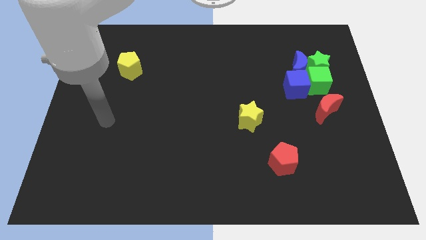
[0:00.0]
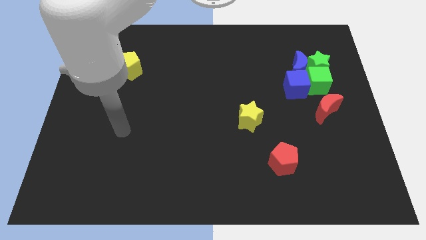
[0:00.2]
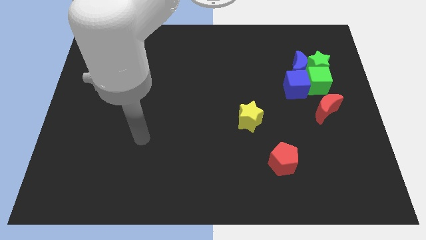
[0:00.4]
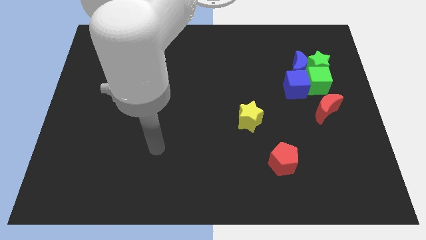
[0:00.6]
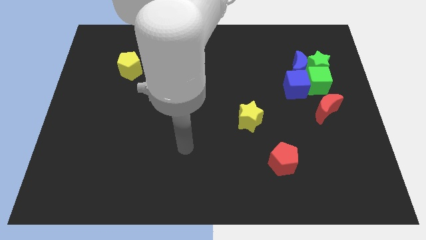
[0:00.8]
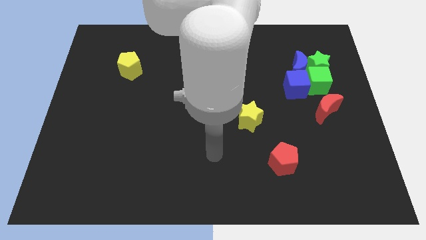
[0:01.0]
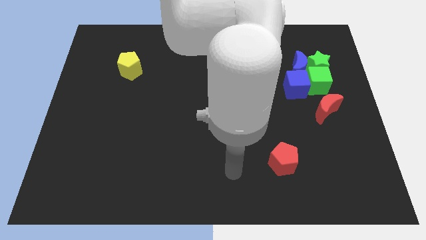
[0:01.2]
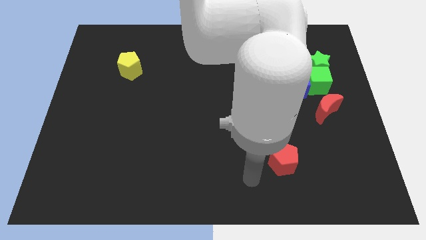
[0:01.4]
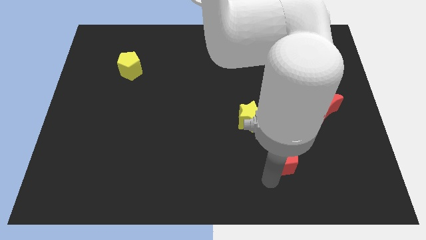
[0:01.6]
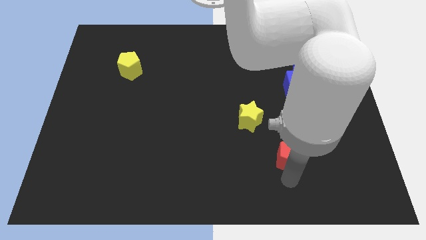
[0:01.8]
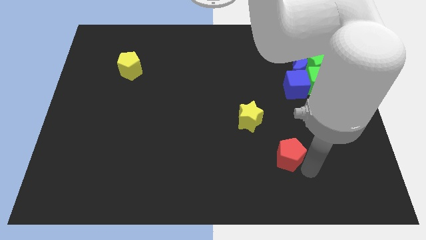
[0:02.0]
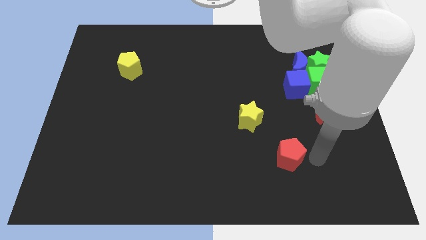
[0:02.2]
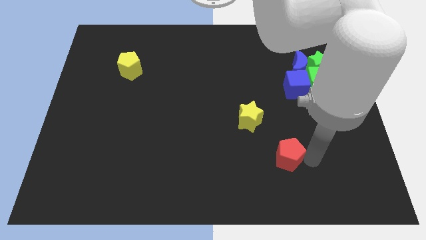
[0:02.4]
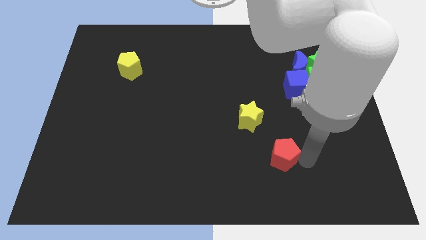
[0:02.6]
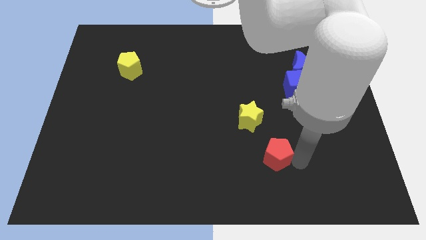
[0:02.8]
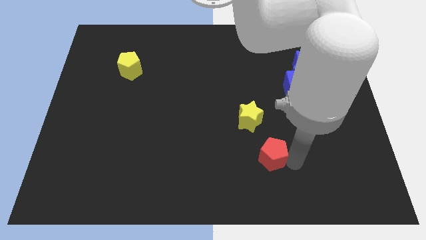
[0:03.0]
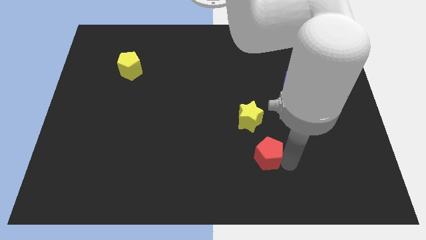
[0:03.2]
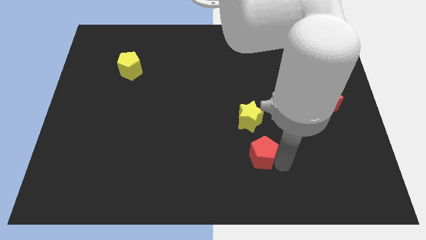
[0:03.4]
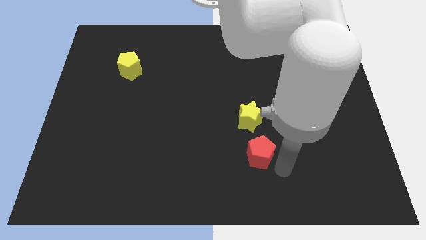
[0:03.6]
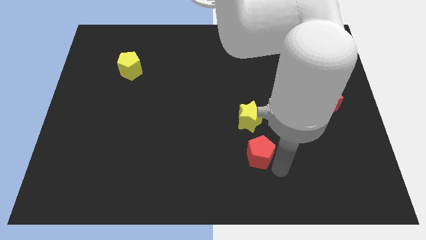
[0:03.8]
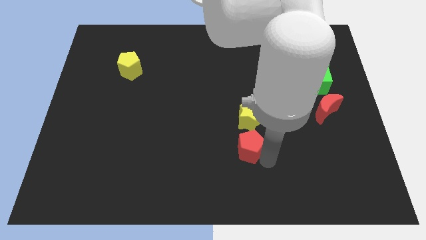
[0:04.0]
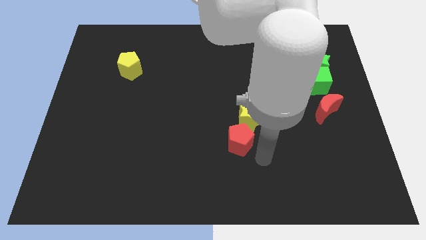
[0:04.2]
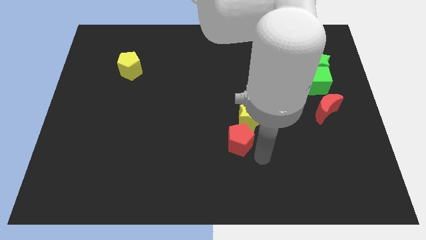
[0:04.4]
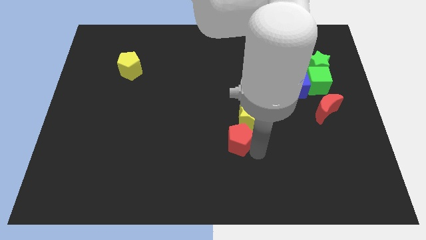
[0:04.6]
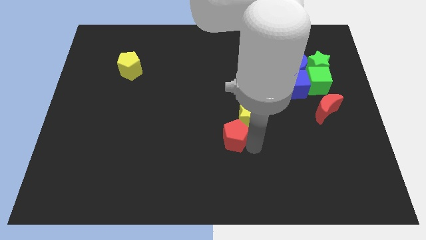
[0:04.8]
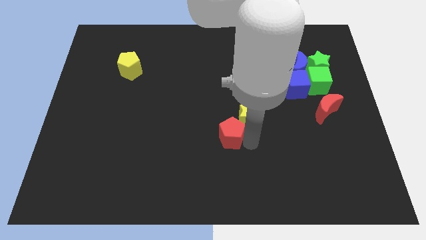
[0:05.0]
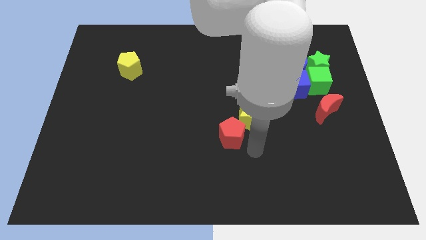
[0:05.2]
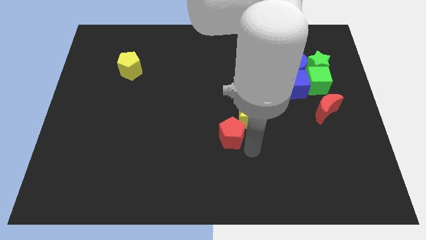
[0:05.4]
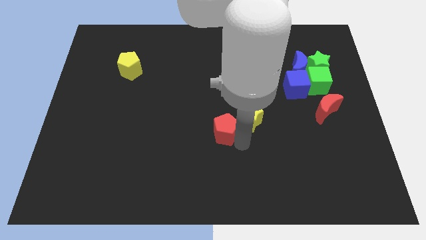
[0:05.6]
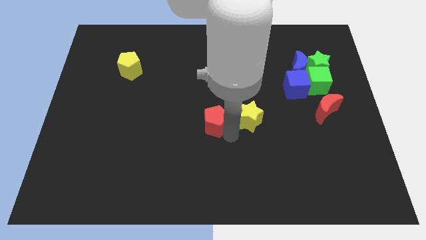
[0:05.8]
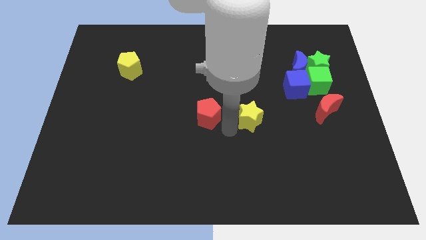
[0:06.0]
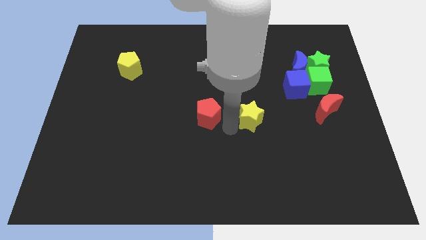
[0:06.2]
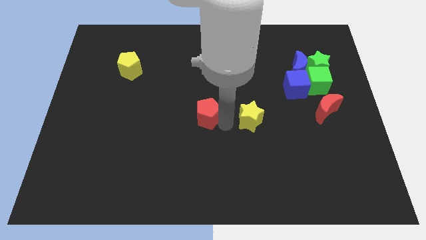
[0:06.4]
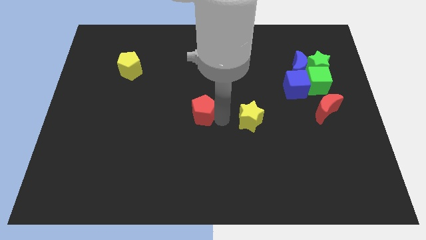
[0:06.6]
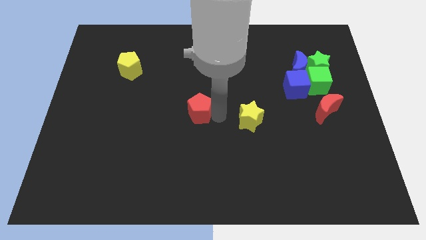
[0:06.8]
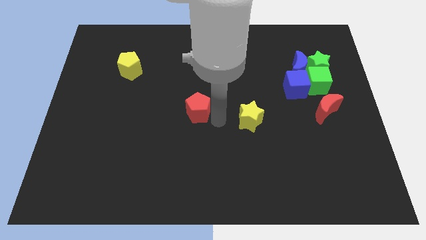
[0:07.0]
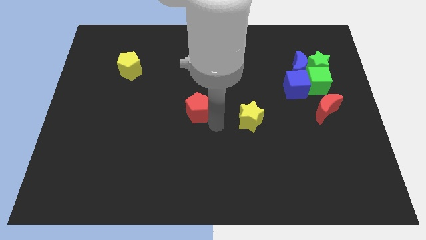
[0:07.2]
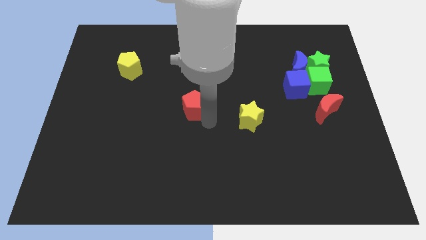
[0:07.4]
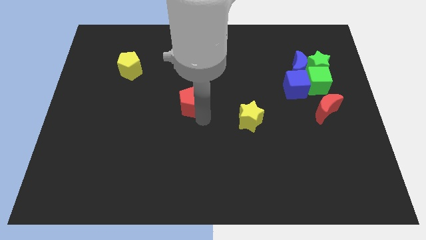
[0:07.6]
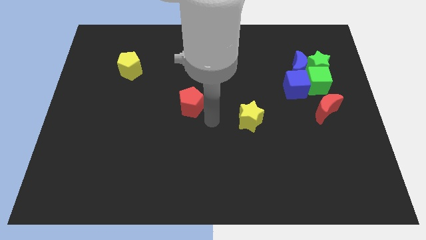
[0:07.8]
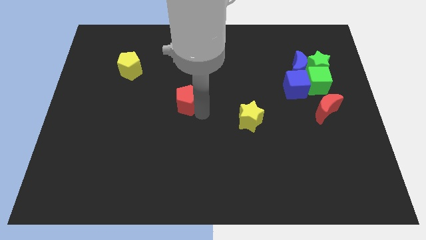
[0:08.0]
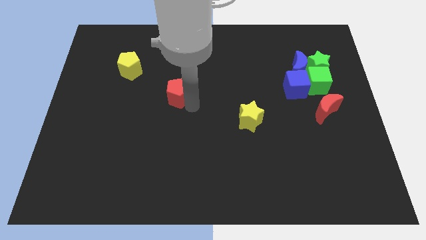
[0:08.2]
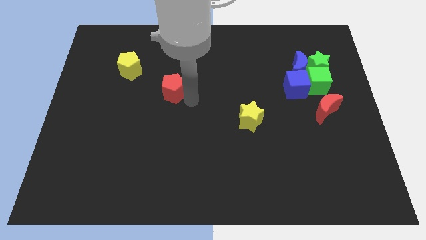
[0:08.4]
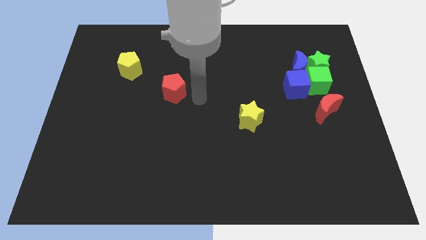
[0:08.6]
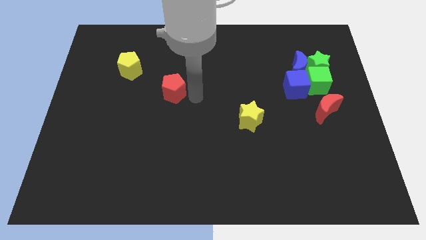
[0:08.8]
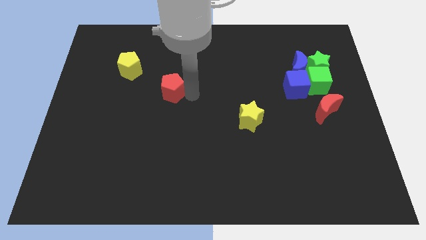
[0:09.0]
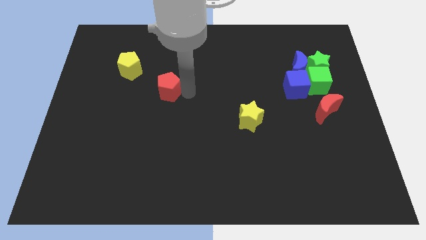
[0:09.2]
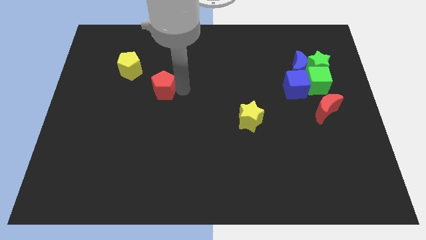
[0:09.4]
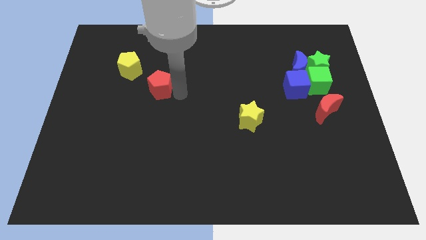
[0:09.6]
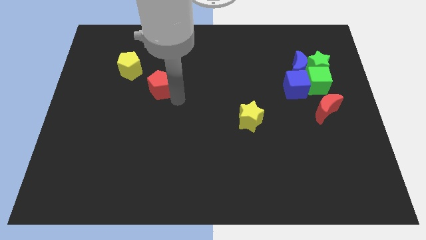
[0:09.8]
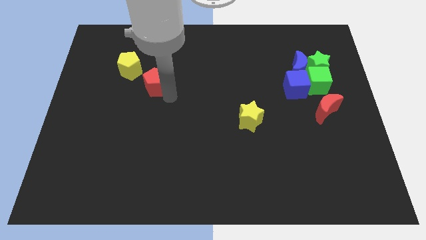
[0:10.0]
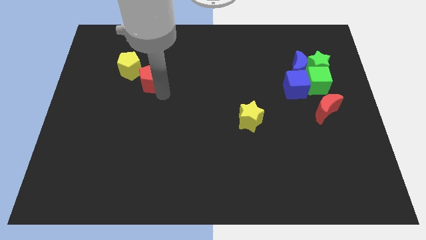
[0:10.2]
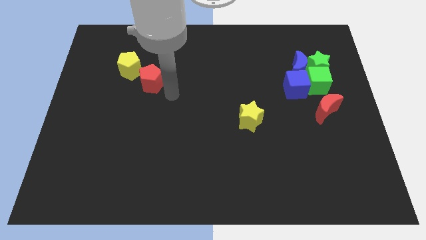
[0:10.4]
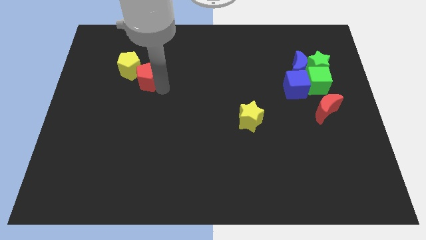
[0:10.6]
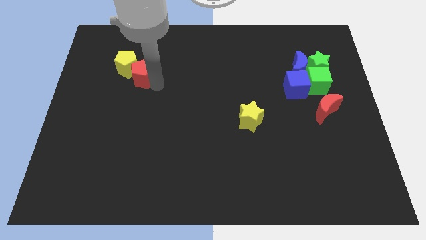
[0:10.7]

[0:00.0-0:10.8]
push the red pentagon next to the yellow pentagon

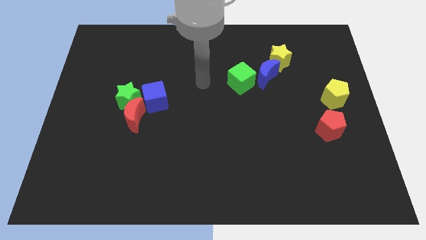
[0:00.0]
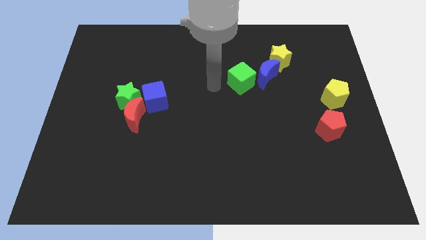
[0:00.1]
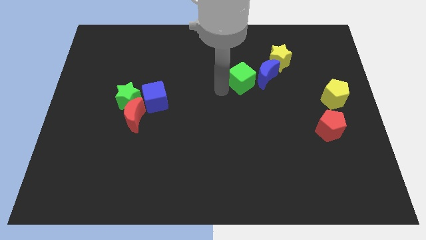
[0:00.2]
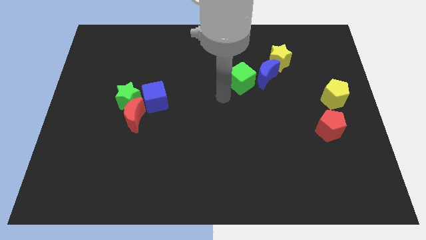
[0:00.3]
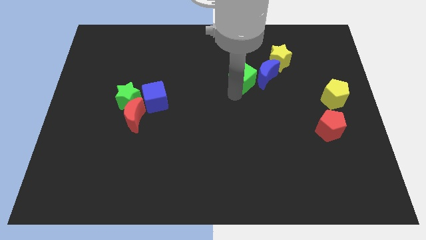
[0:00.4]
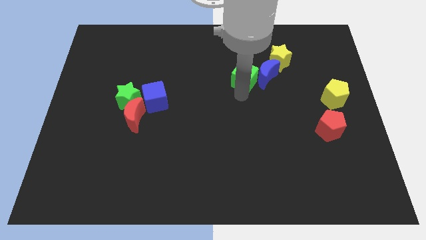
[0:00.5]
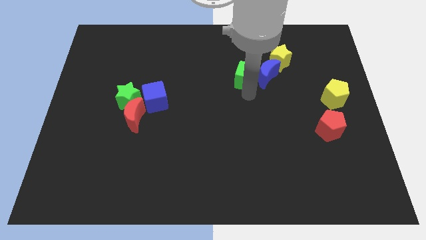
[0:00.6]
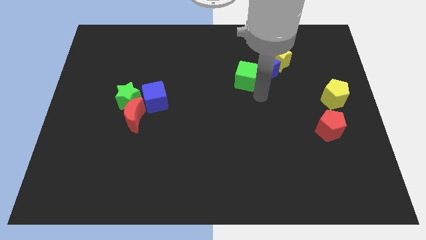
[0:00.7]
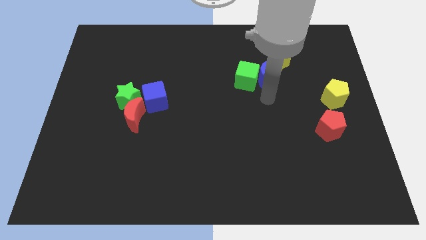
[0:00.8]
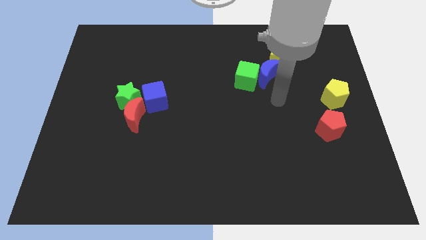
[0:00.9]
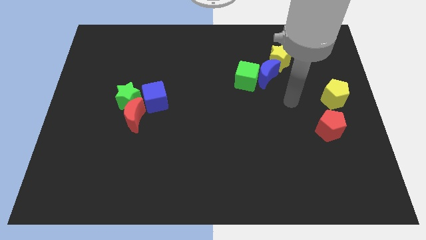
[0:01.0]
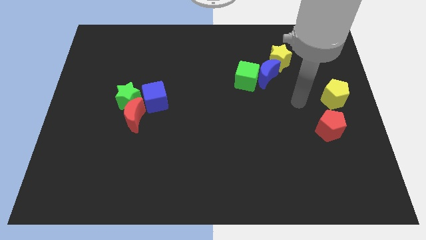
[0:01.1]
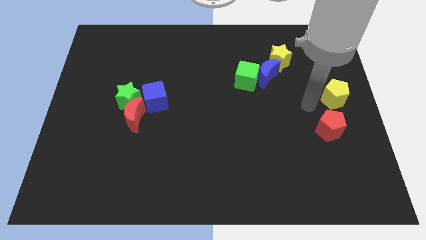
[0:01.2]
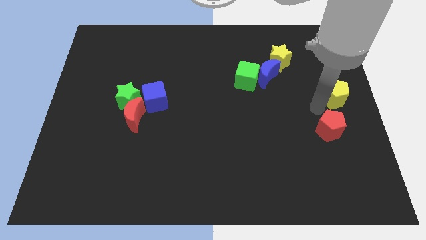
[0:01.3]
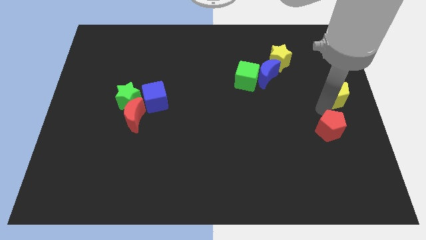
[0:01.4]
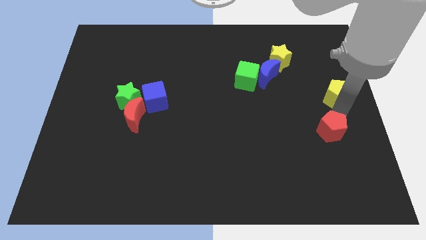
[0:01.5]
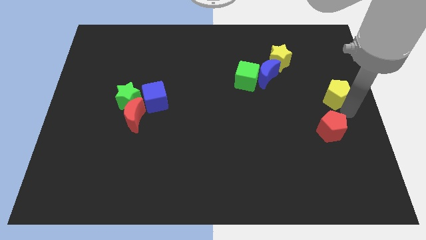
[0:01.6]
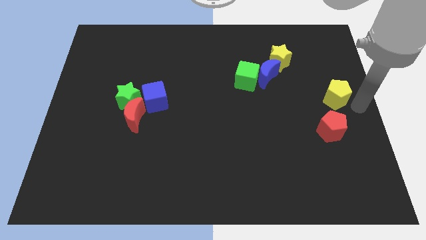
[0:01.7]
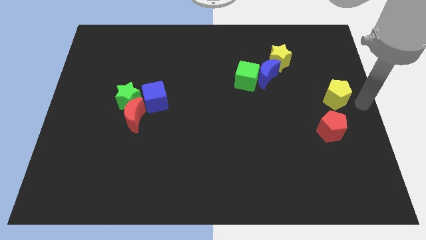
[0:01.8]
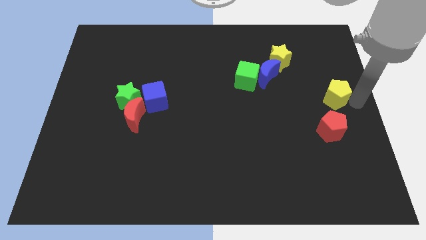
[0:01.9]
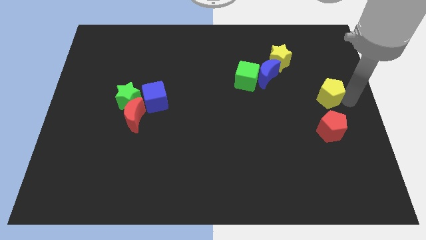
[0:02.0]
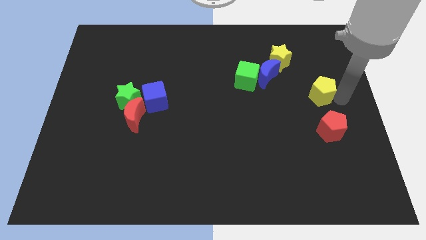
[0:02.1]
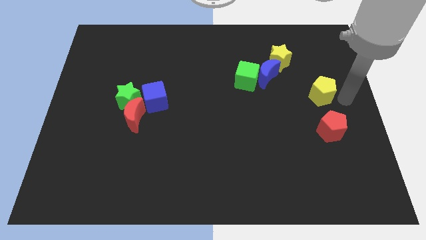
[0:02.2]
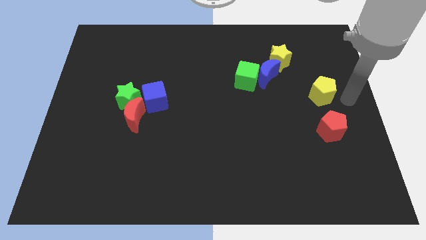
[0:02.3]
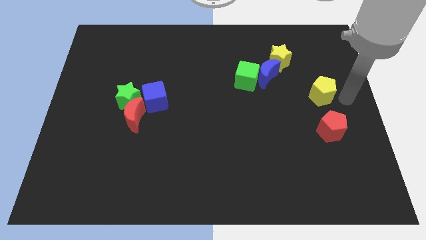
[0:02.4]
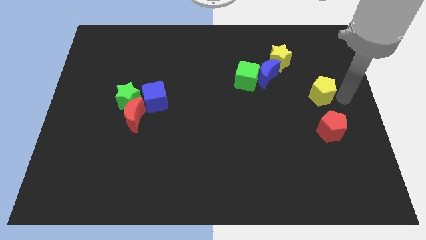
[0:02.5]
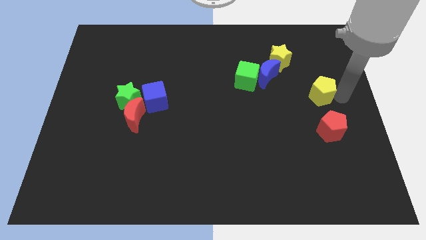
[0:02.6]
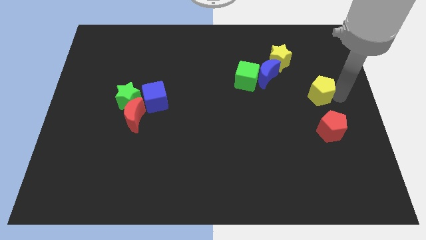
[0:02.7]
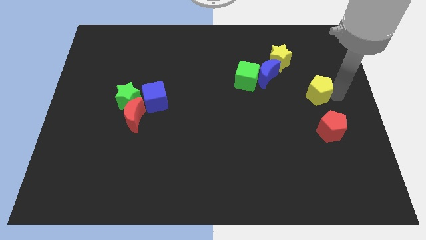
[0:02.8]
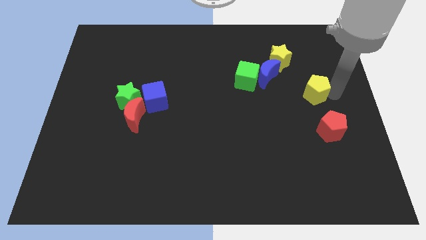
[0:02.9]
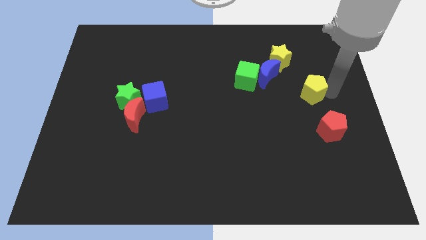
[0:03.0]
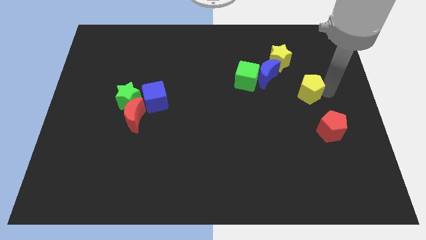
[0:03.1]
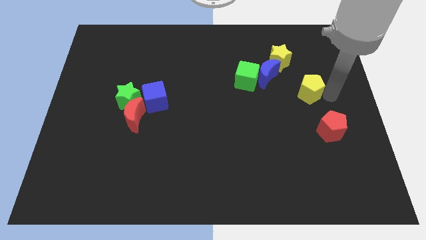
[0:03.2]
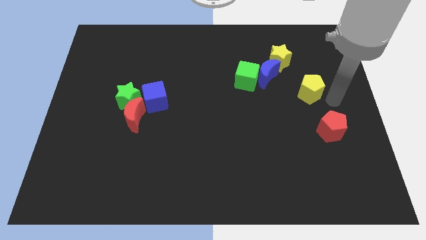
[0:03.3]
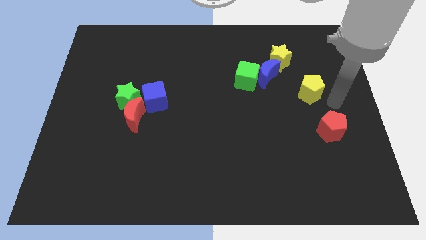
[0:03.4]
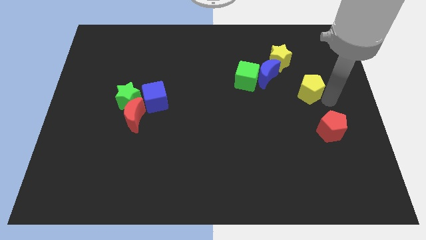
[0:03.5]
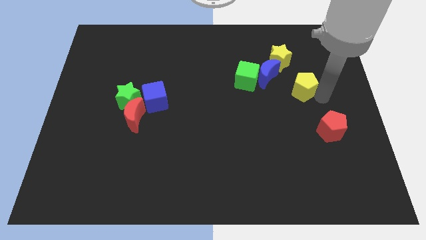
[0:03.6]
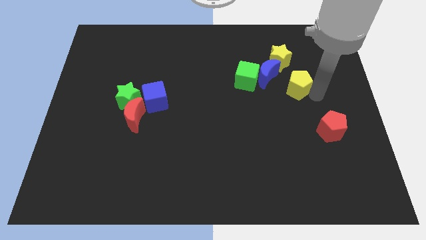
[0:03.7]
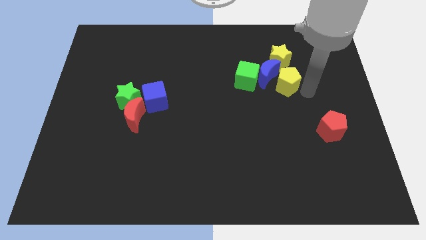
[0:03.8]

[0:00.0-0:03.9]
push the yellow pentagon towards the blue moon
